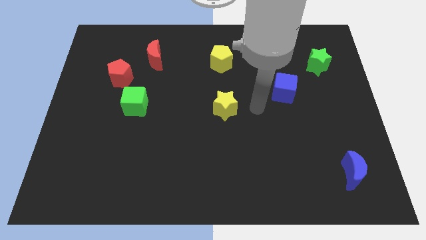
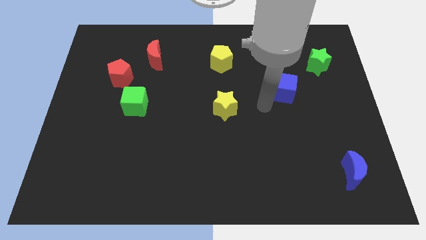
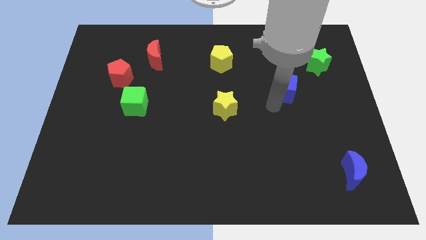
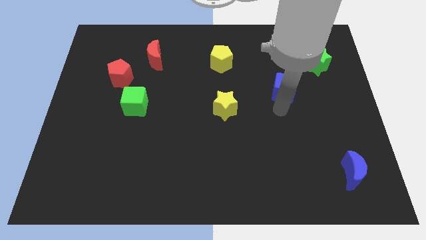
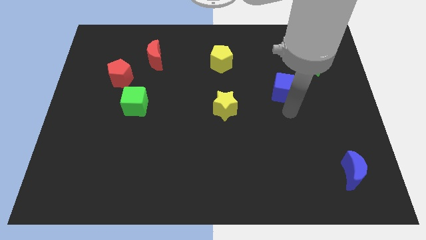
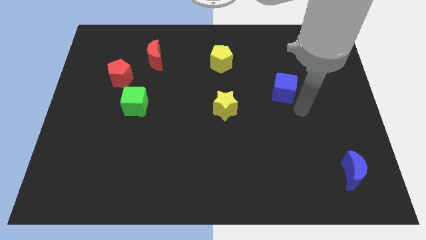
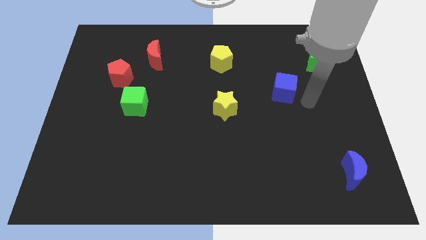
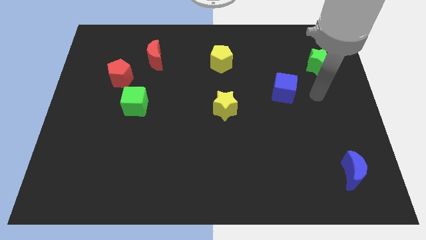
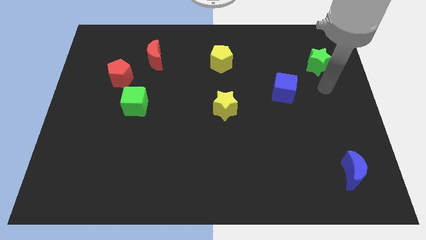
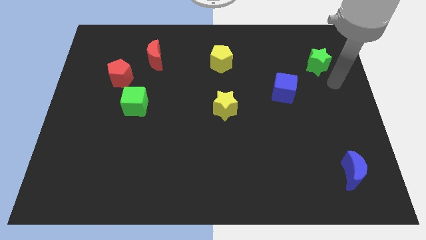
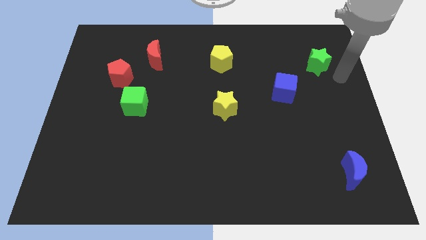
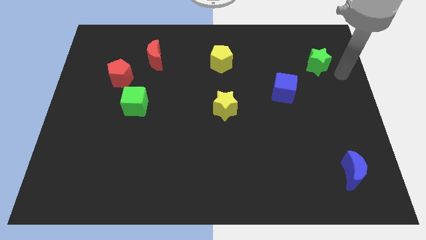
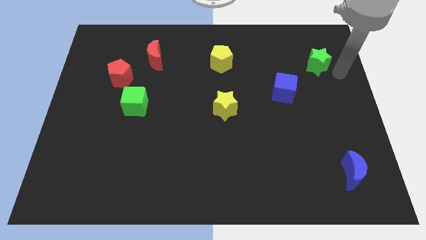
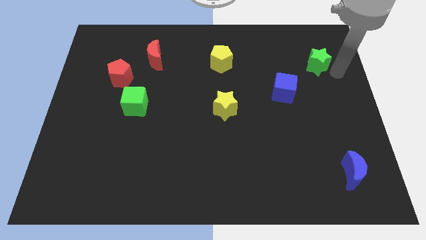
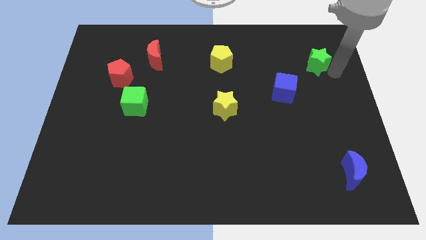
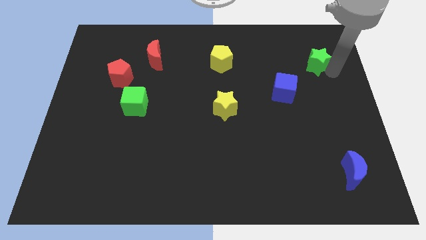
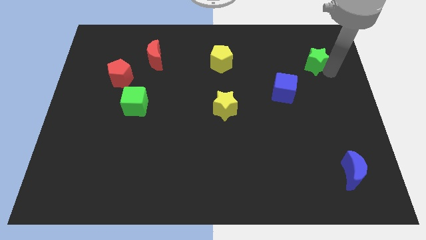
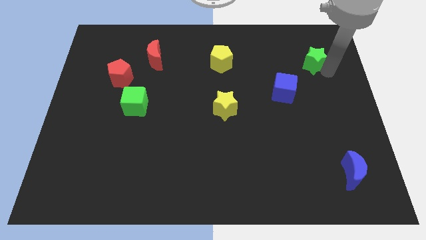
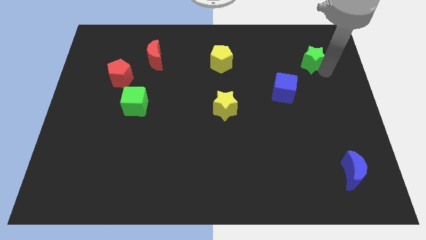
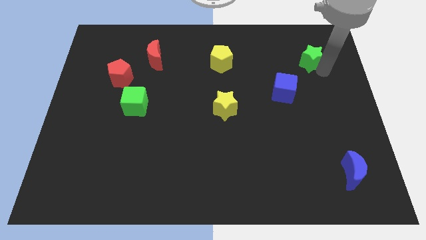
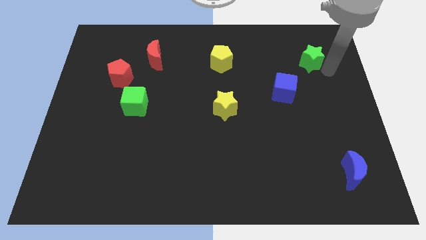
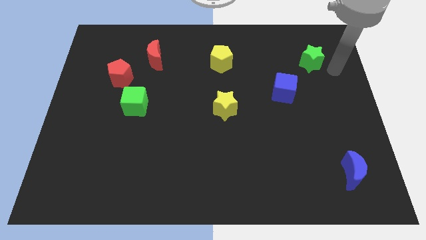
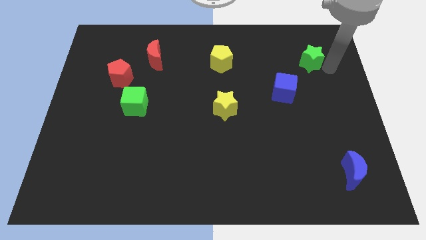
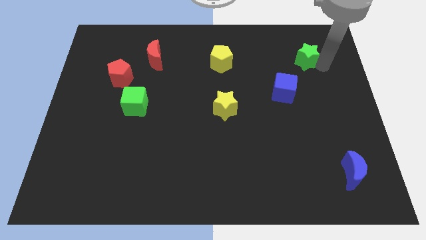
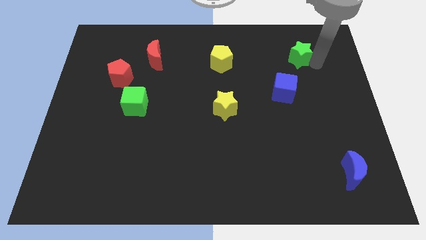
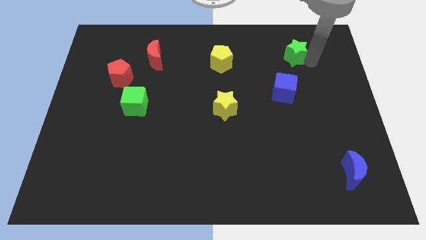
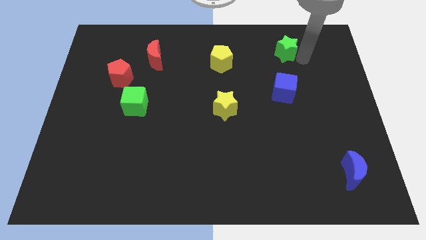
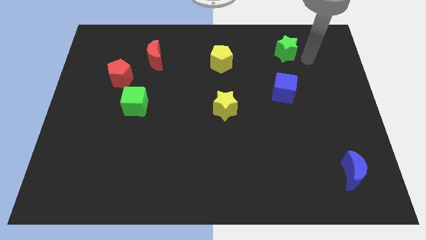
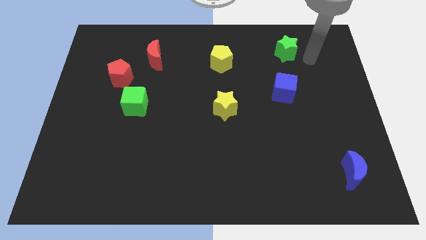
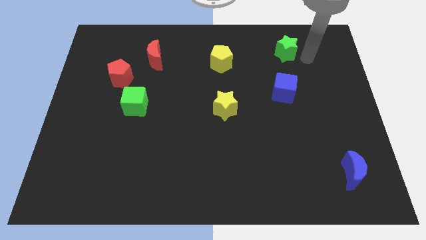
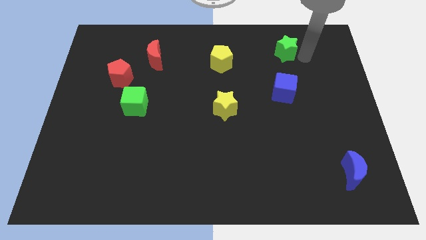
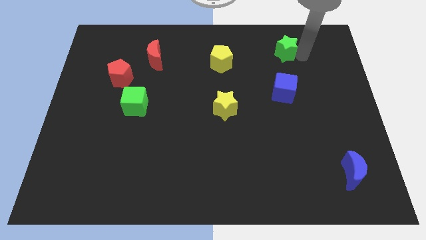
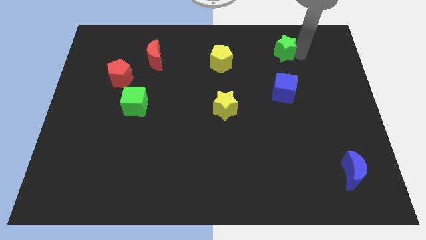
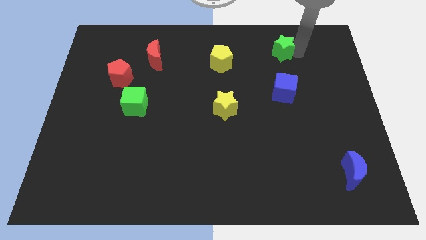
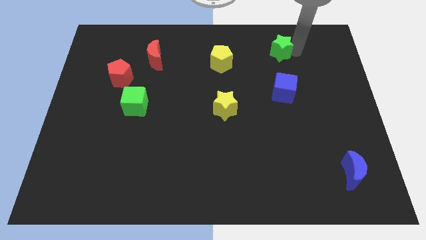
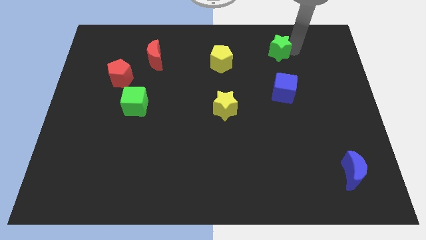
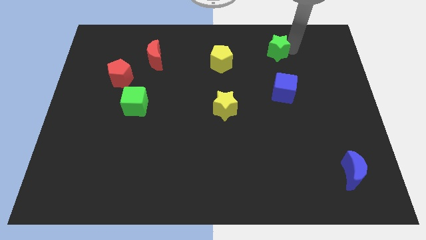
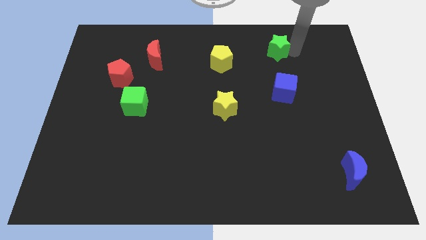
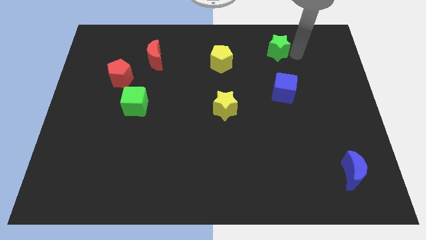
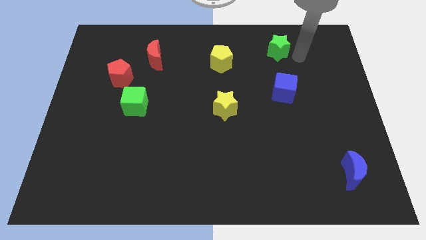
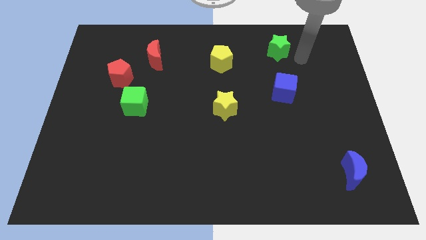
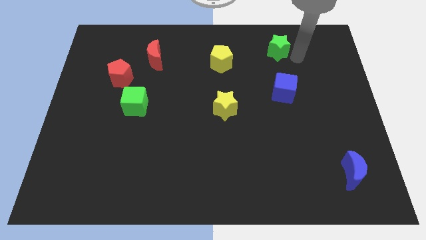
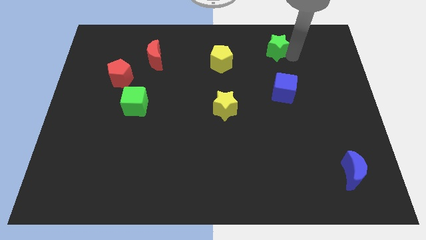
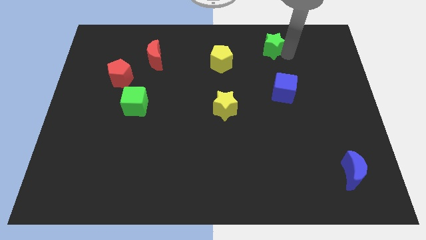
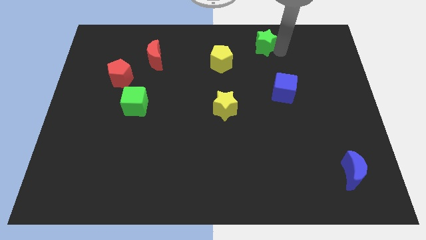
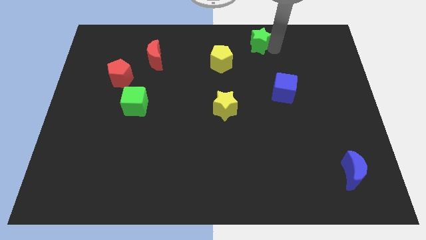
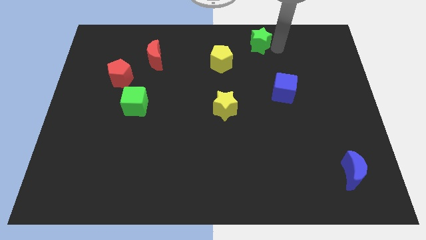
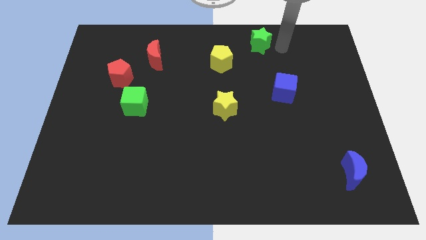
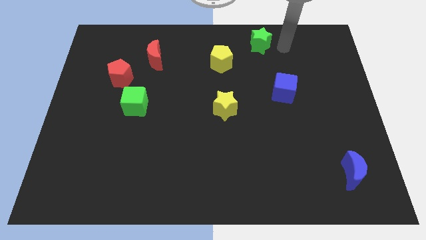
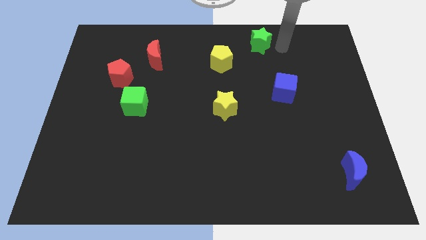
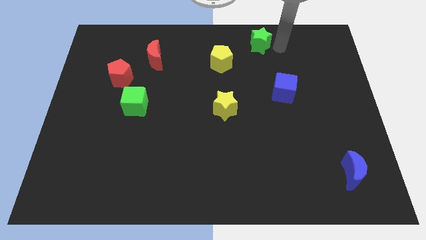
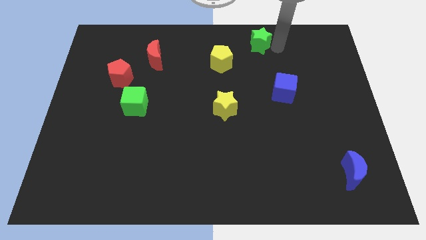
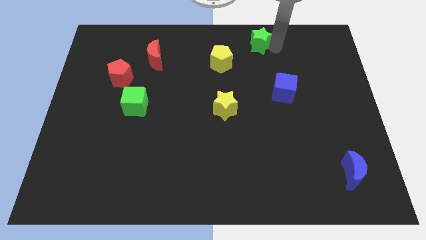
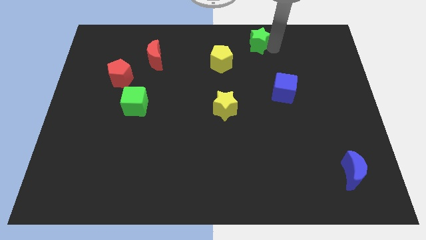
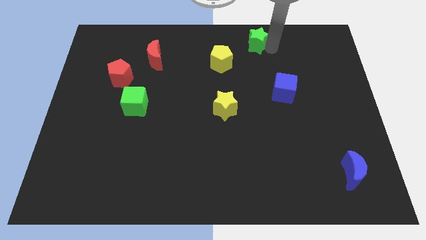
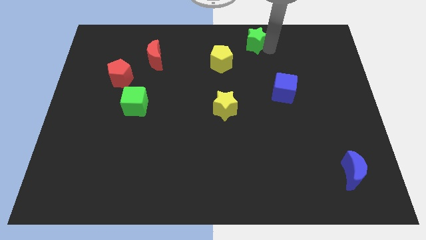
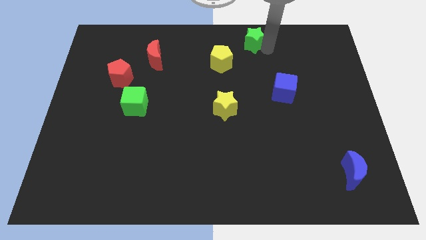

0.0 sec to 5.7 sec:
push the green star to the top side
